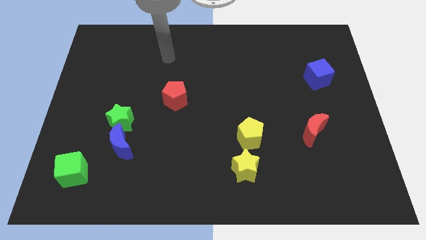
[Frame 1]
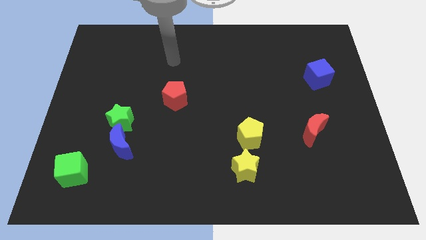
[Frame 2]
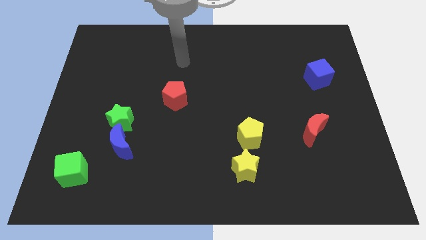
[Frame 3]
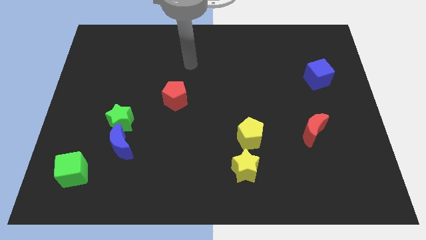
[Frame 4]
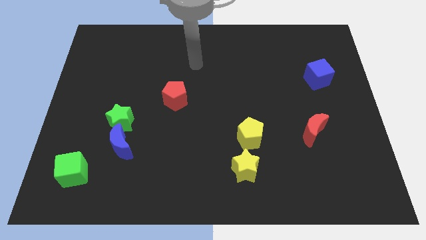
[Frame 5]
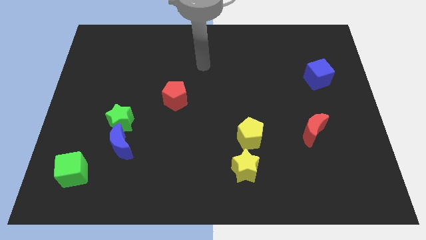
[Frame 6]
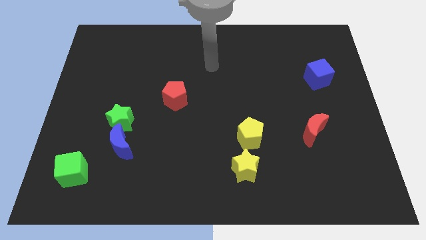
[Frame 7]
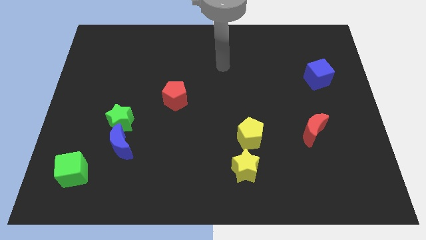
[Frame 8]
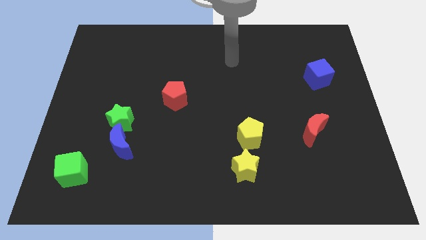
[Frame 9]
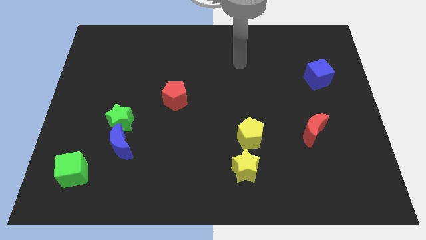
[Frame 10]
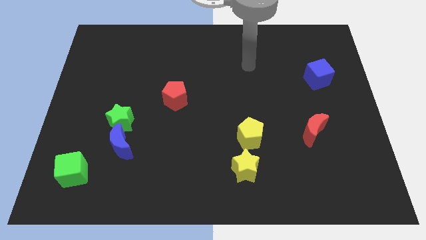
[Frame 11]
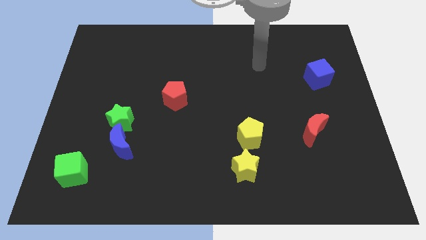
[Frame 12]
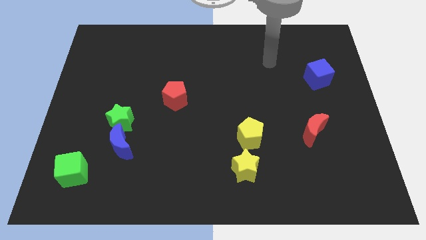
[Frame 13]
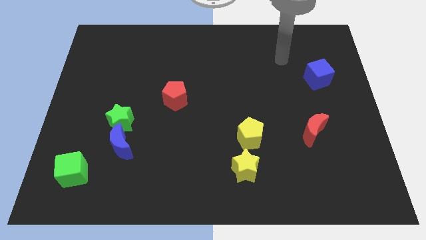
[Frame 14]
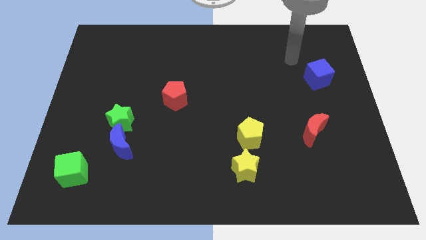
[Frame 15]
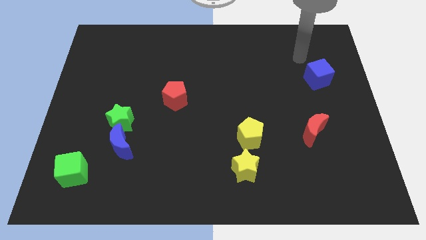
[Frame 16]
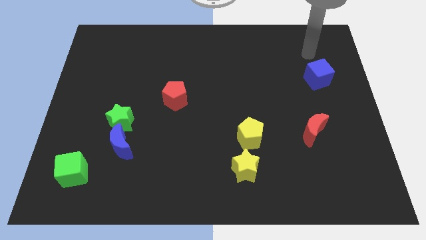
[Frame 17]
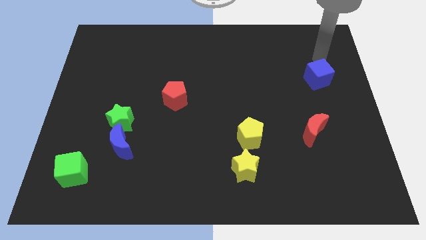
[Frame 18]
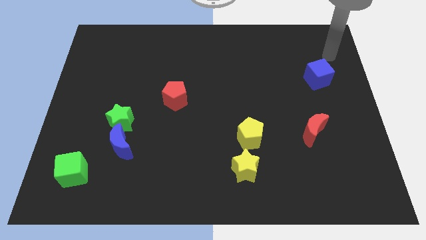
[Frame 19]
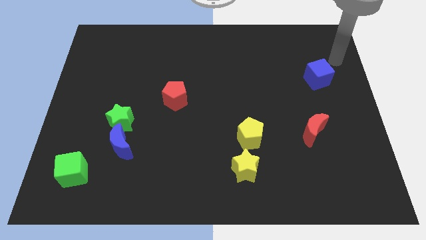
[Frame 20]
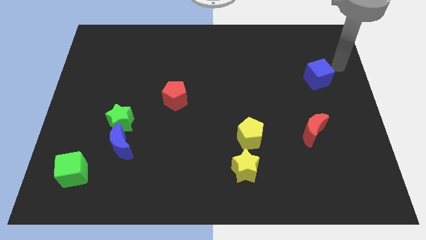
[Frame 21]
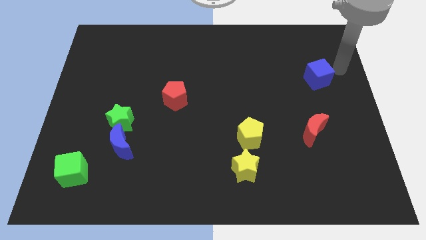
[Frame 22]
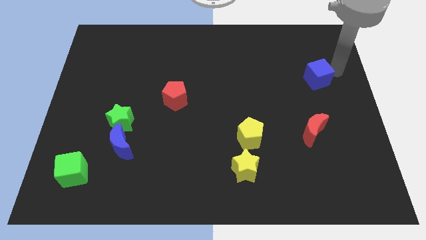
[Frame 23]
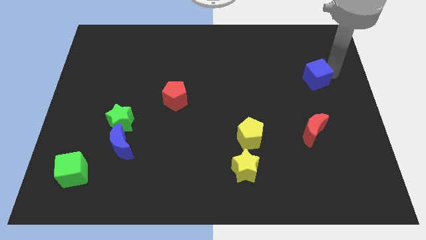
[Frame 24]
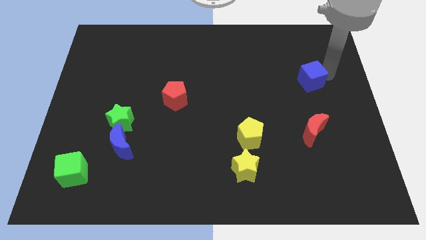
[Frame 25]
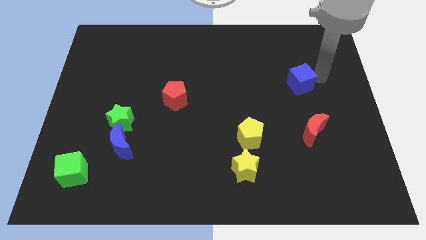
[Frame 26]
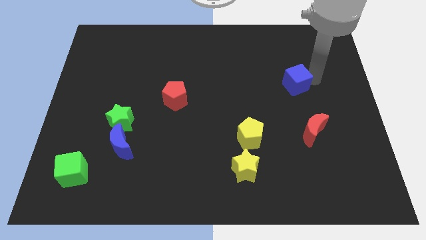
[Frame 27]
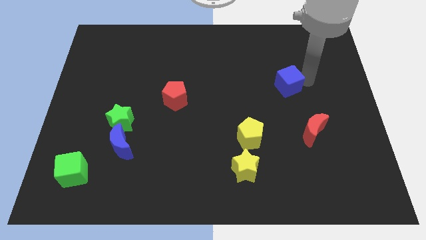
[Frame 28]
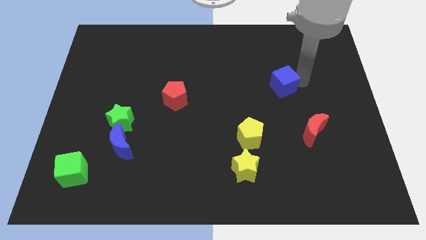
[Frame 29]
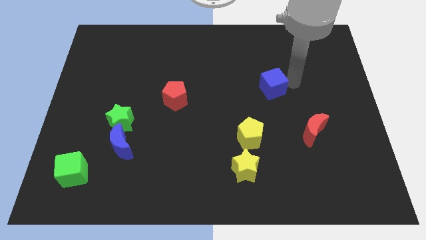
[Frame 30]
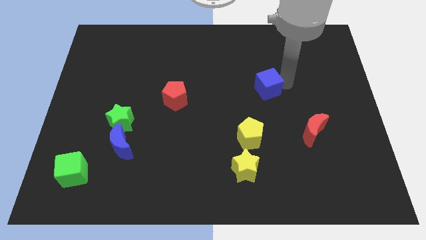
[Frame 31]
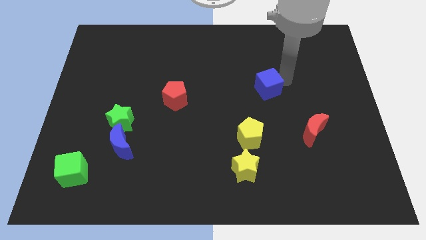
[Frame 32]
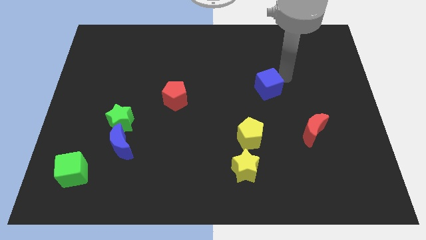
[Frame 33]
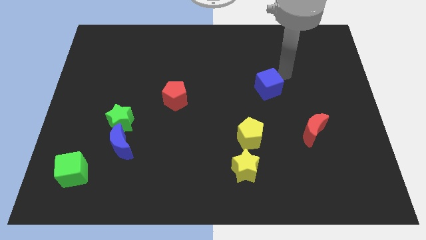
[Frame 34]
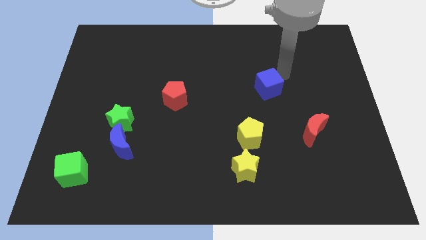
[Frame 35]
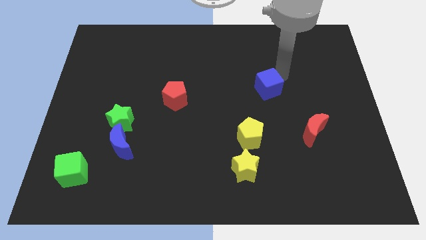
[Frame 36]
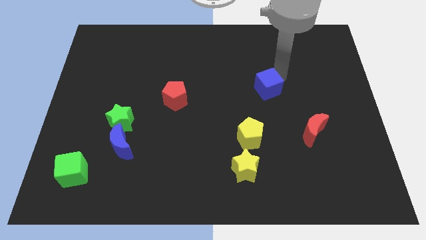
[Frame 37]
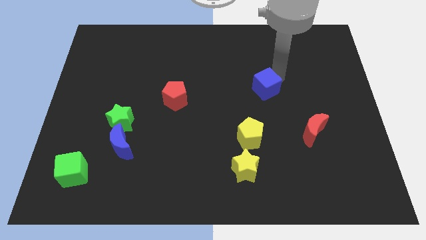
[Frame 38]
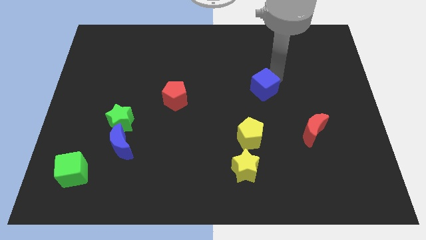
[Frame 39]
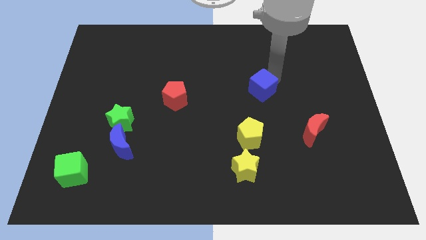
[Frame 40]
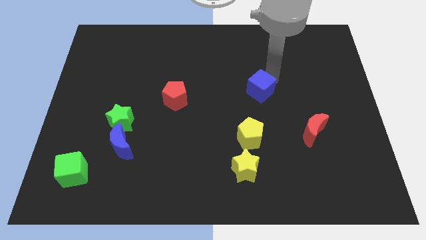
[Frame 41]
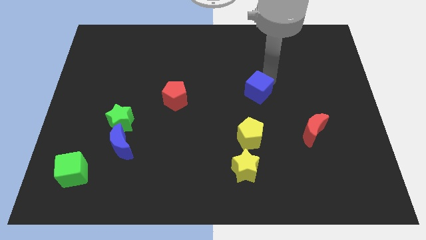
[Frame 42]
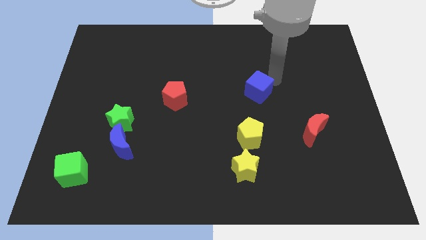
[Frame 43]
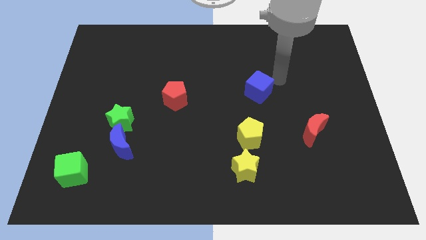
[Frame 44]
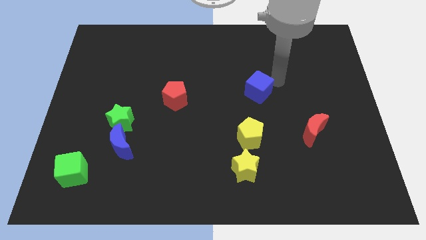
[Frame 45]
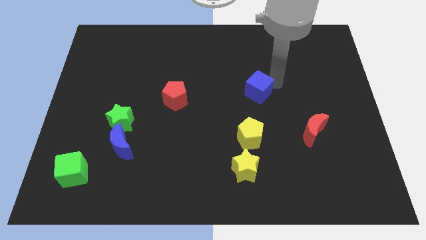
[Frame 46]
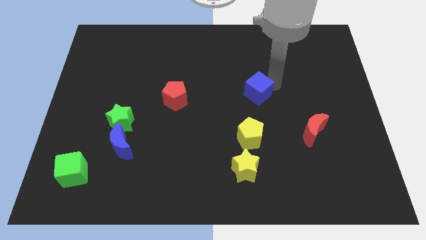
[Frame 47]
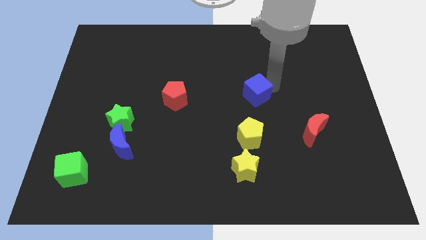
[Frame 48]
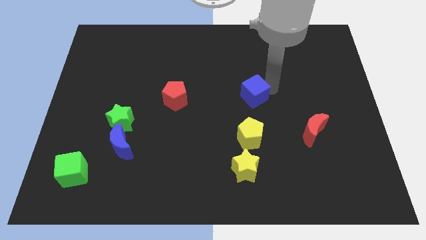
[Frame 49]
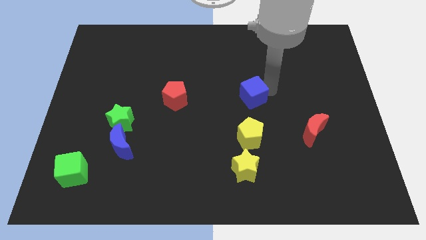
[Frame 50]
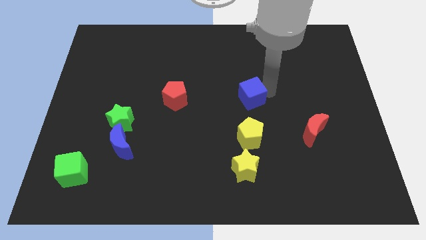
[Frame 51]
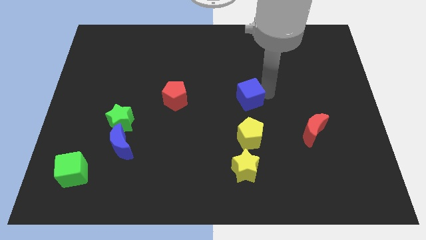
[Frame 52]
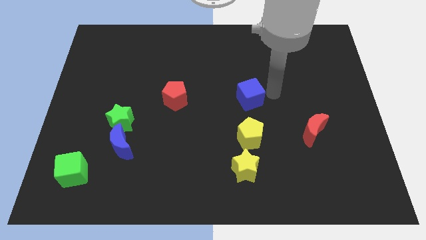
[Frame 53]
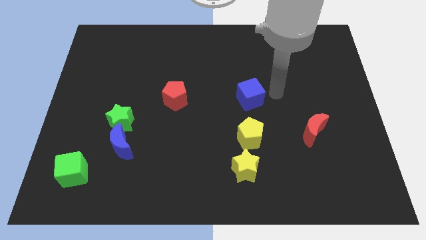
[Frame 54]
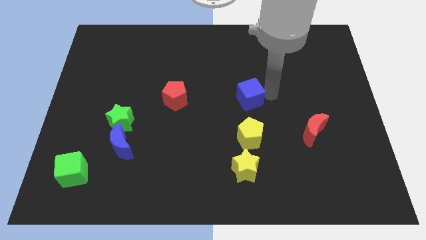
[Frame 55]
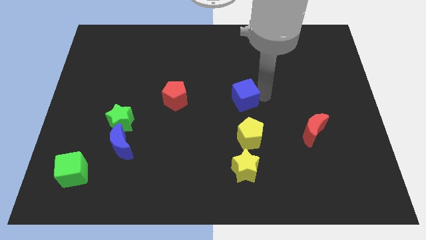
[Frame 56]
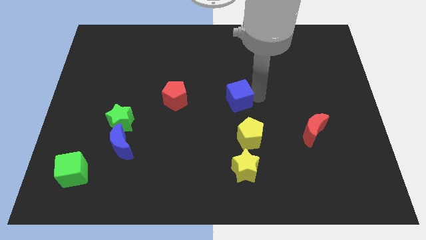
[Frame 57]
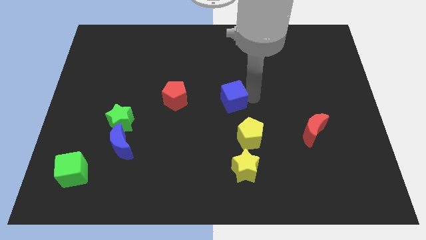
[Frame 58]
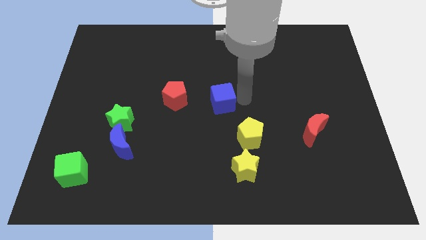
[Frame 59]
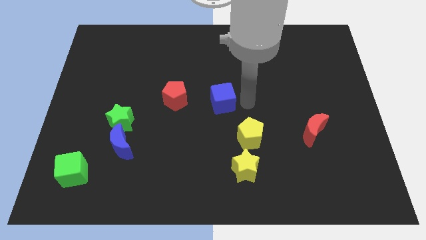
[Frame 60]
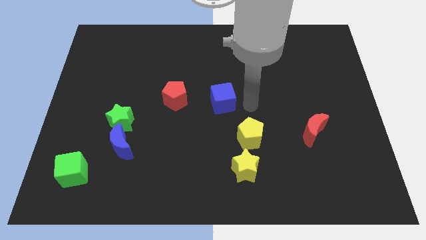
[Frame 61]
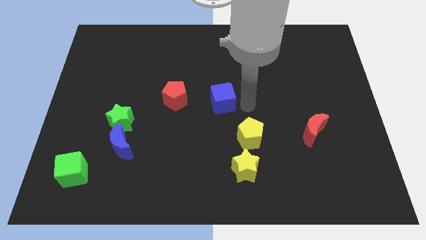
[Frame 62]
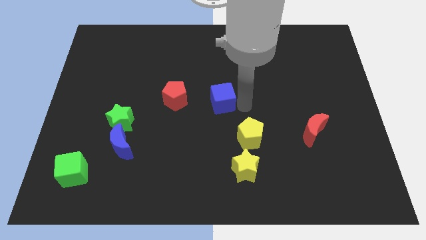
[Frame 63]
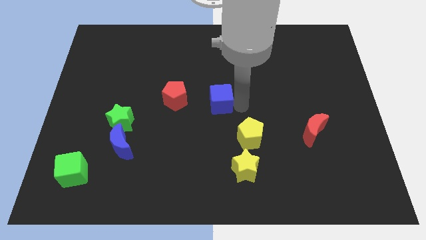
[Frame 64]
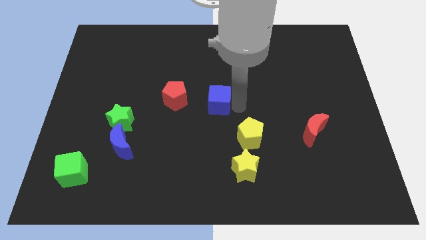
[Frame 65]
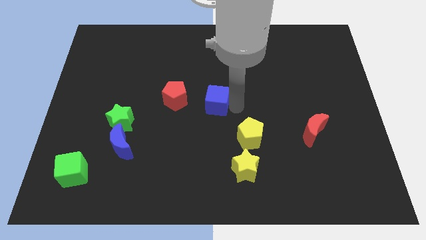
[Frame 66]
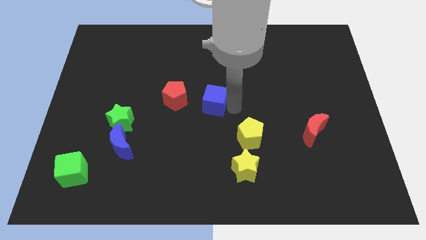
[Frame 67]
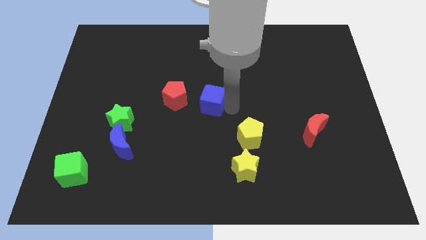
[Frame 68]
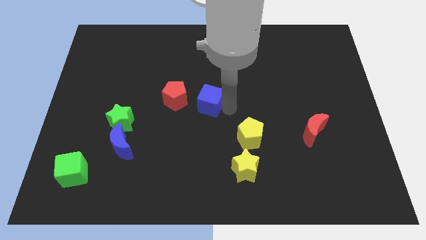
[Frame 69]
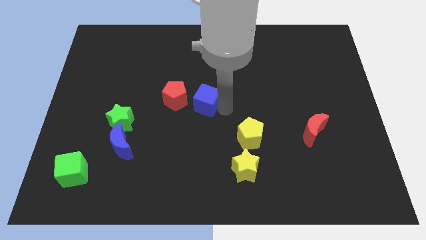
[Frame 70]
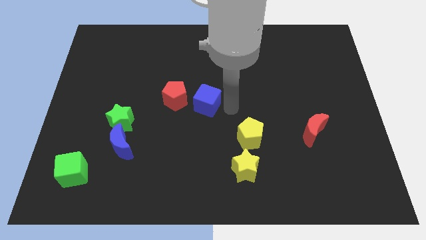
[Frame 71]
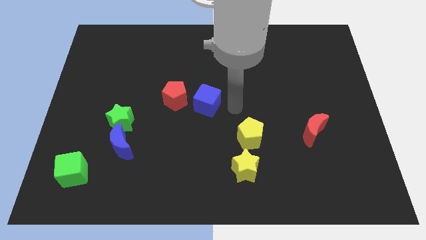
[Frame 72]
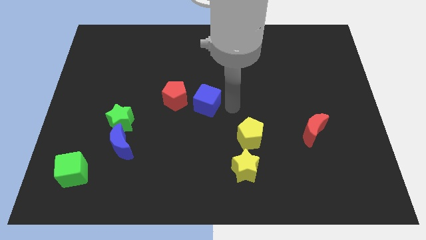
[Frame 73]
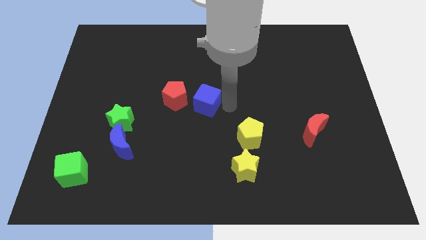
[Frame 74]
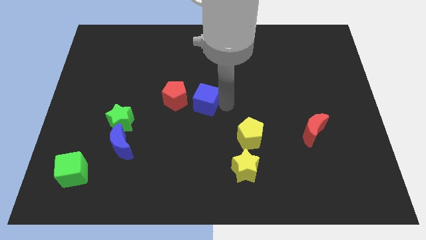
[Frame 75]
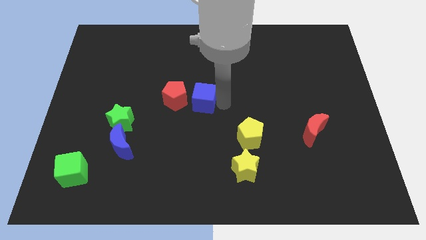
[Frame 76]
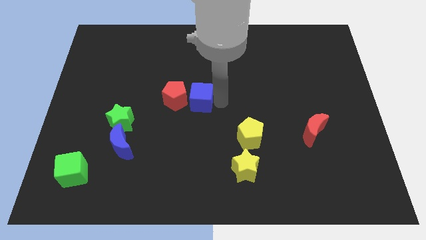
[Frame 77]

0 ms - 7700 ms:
put the blue cube close to the red pentagon
